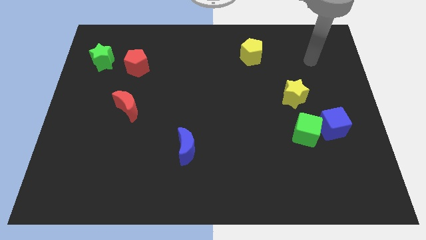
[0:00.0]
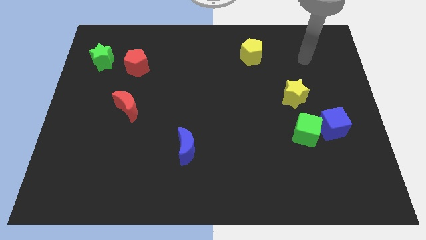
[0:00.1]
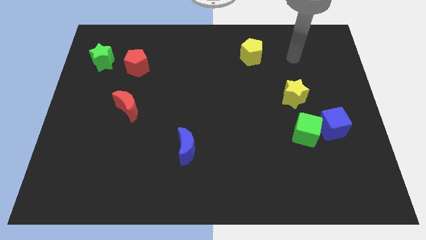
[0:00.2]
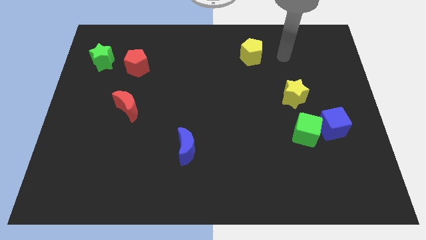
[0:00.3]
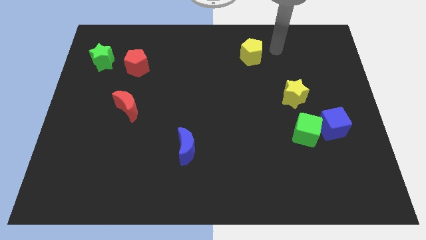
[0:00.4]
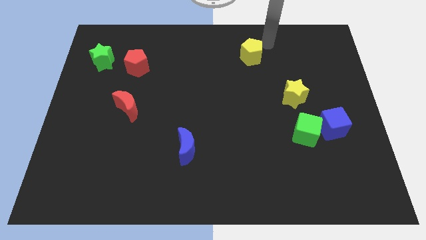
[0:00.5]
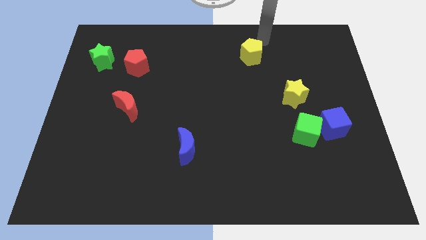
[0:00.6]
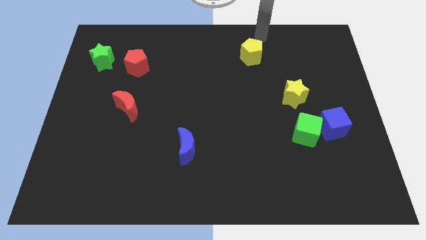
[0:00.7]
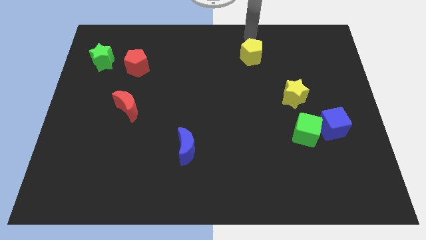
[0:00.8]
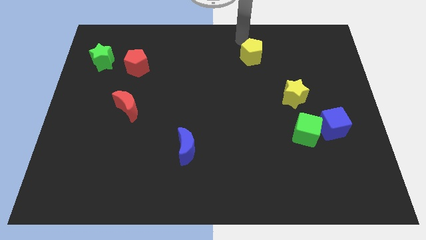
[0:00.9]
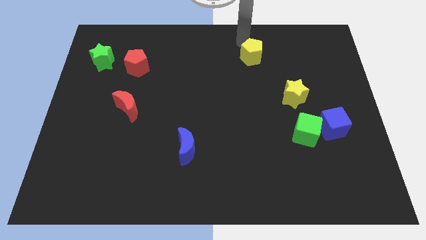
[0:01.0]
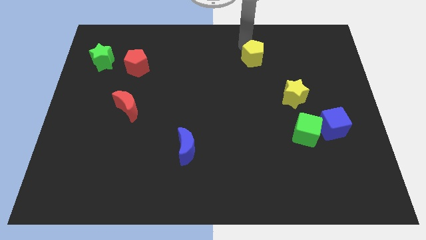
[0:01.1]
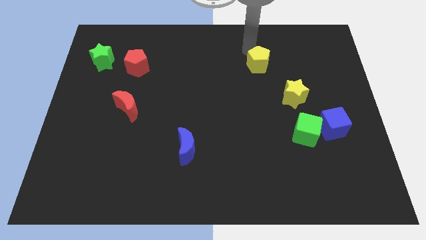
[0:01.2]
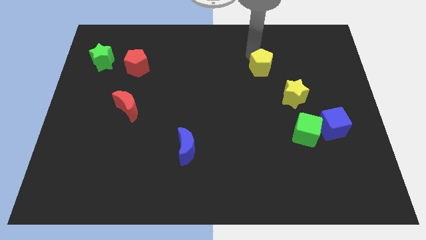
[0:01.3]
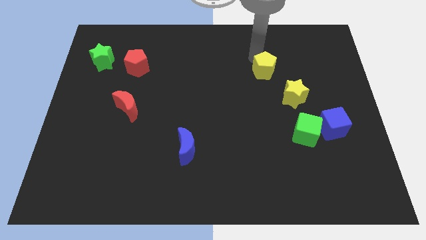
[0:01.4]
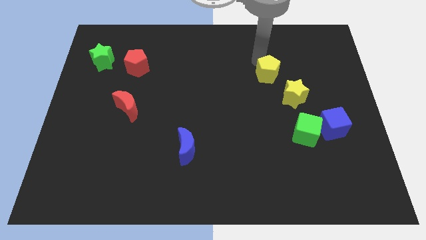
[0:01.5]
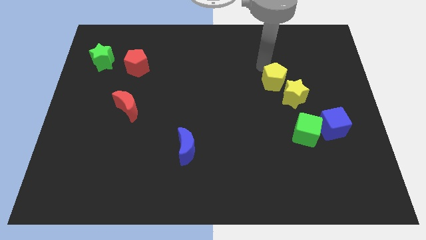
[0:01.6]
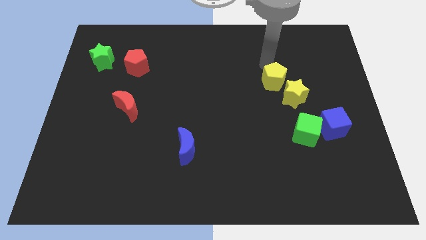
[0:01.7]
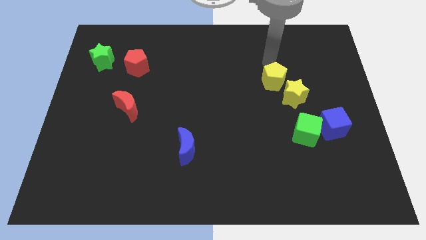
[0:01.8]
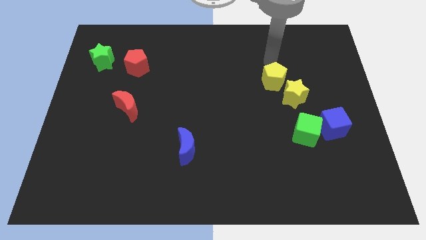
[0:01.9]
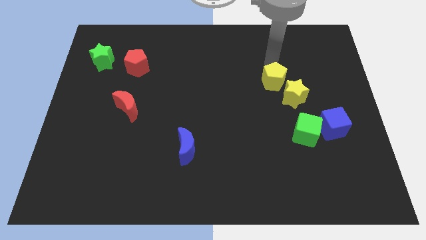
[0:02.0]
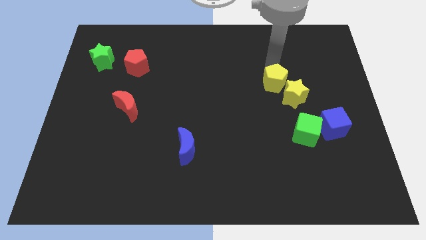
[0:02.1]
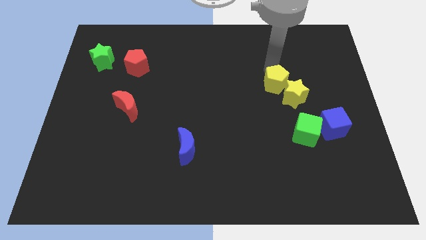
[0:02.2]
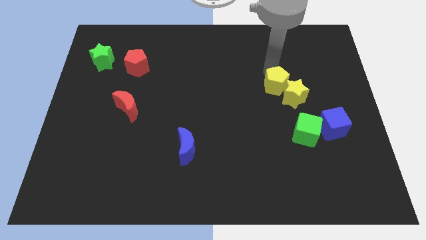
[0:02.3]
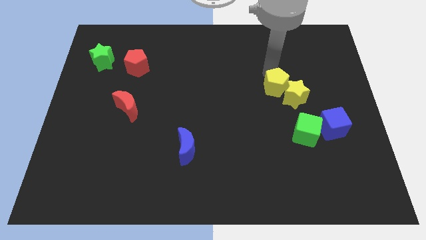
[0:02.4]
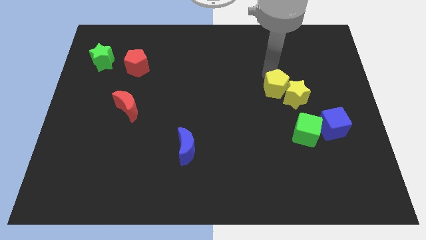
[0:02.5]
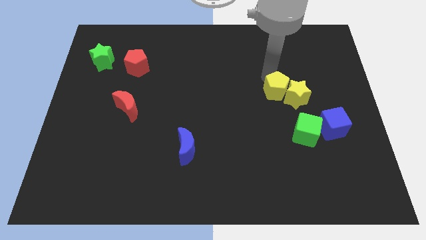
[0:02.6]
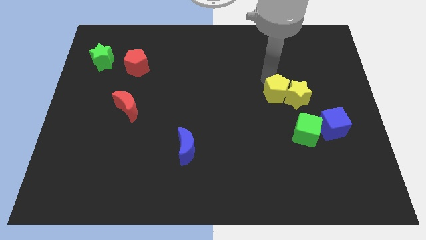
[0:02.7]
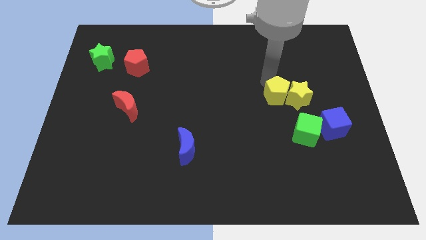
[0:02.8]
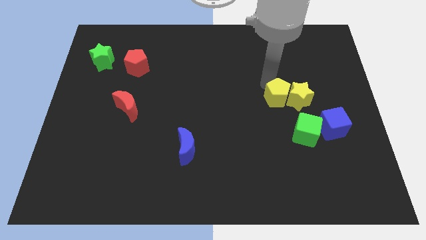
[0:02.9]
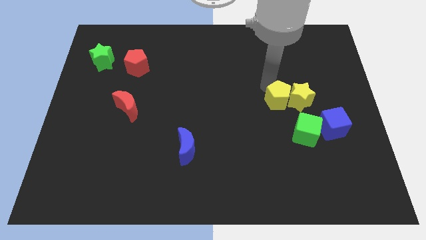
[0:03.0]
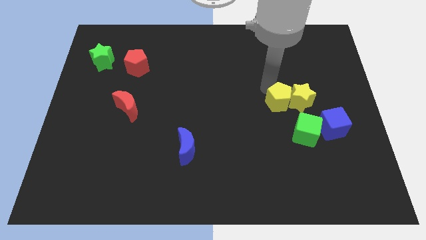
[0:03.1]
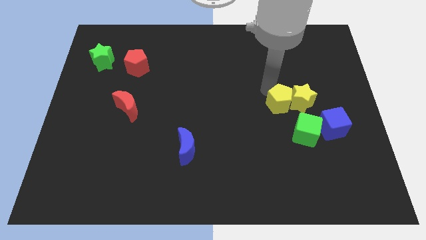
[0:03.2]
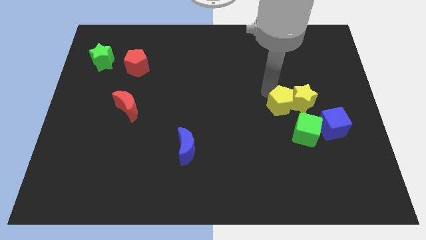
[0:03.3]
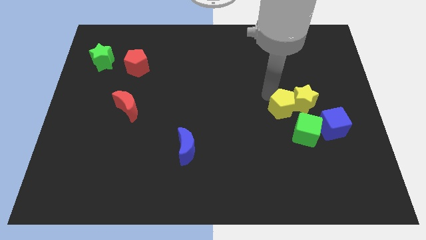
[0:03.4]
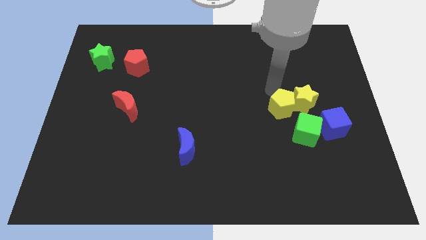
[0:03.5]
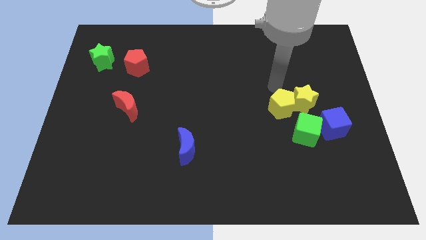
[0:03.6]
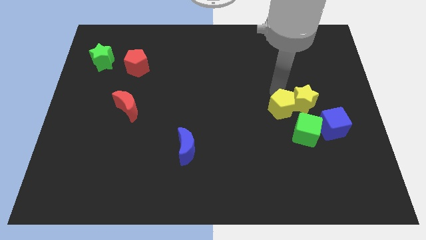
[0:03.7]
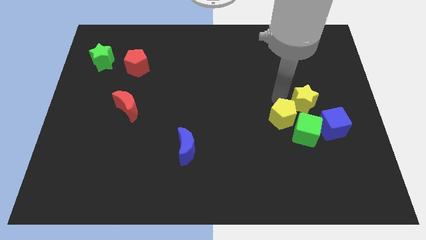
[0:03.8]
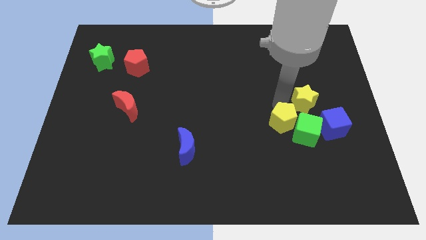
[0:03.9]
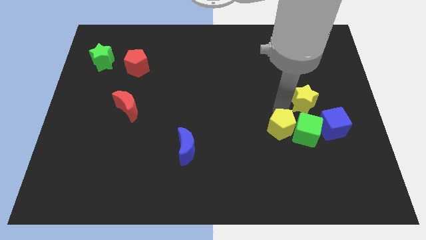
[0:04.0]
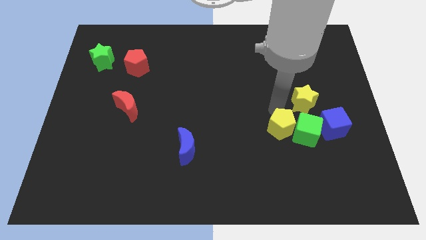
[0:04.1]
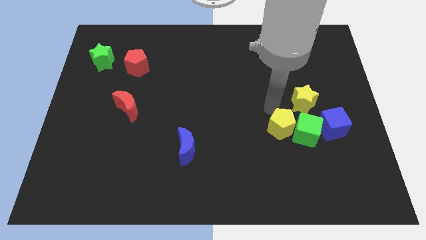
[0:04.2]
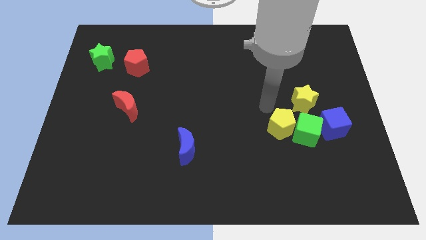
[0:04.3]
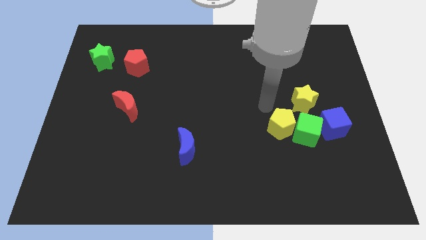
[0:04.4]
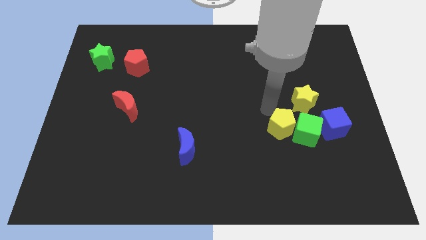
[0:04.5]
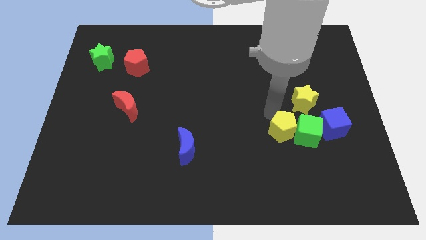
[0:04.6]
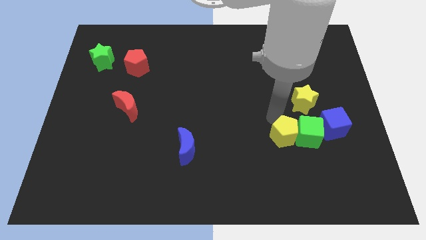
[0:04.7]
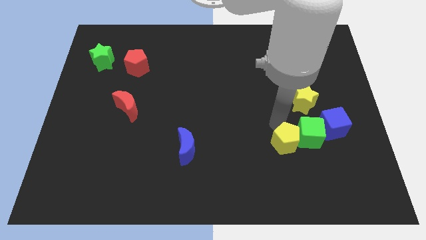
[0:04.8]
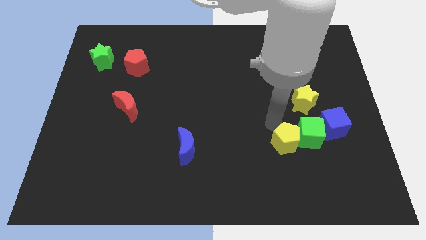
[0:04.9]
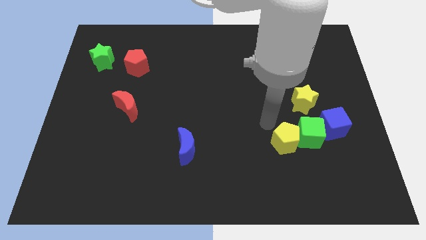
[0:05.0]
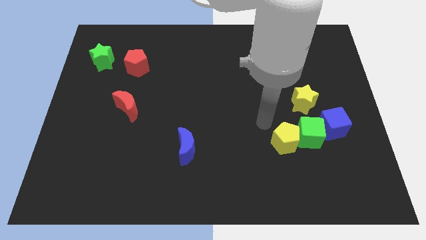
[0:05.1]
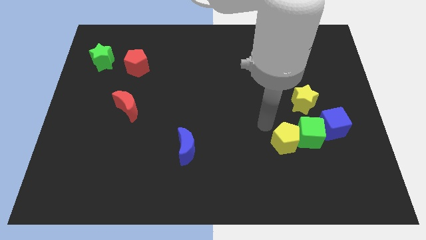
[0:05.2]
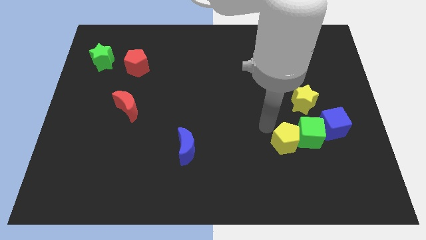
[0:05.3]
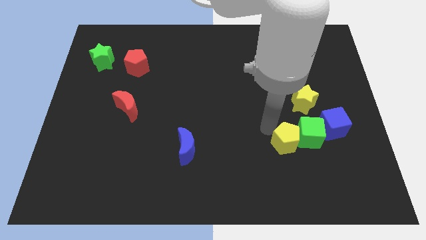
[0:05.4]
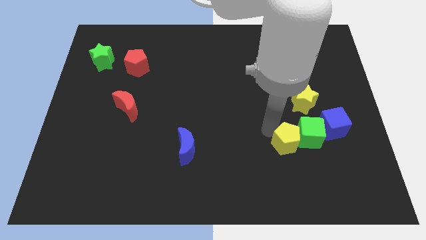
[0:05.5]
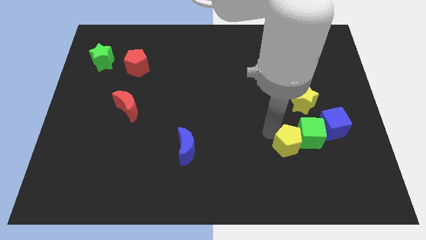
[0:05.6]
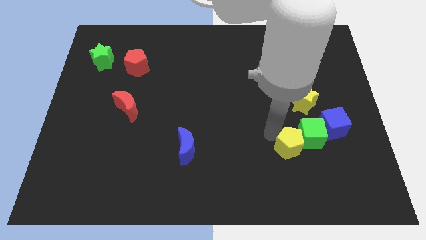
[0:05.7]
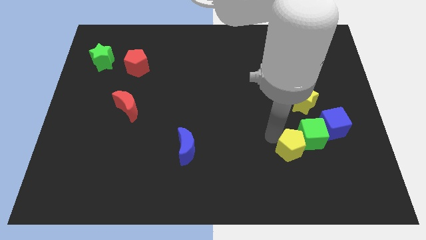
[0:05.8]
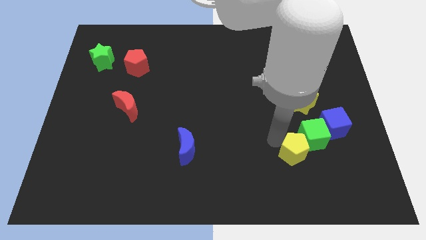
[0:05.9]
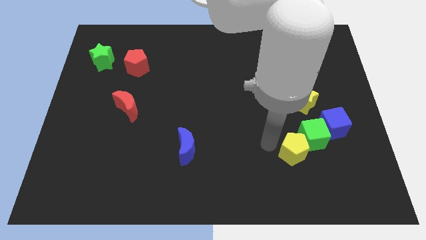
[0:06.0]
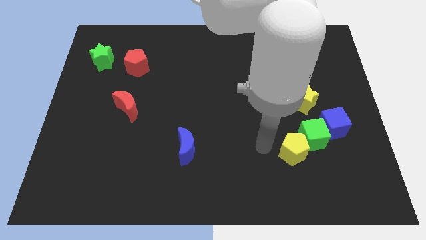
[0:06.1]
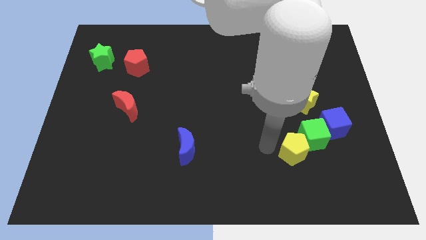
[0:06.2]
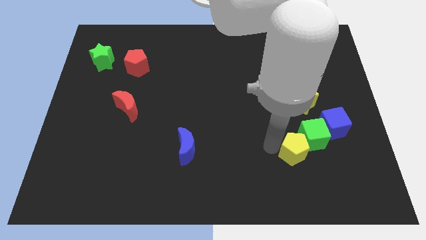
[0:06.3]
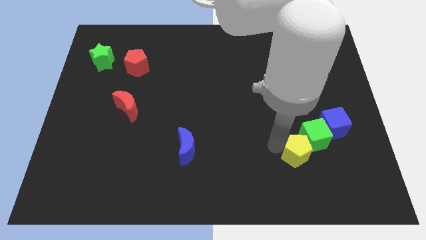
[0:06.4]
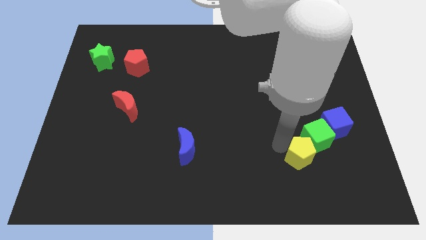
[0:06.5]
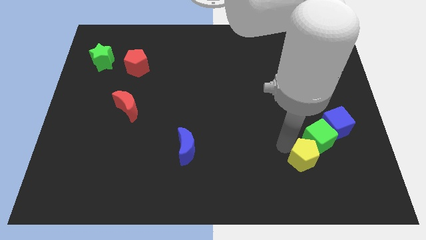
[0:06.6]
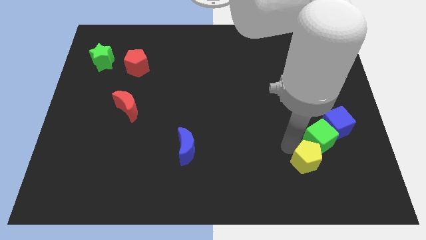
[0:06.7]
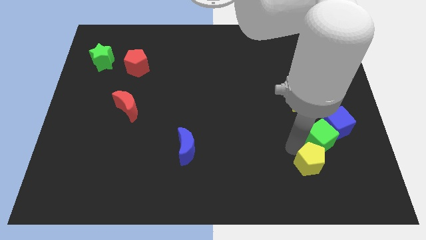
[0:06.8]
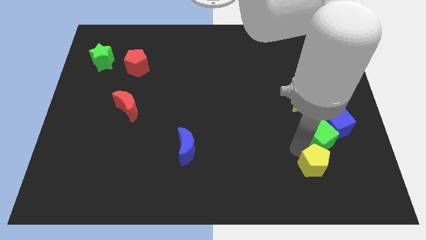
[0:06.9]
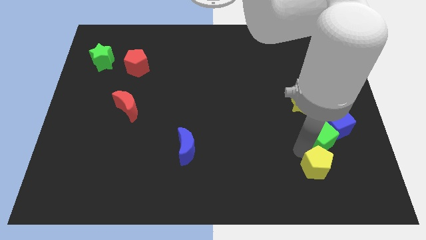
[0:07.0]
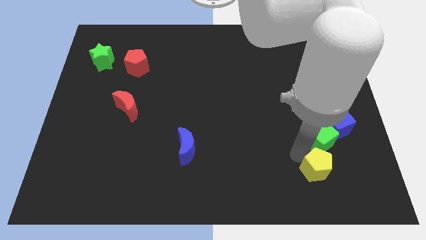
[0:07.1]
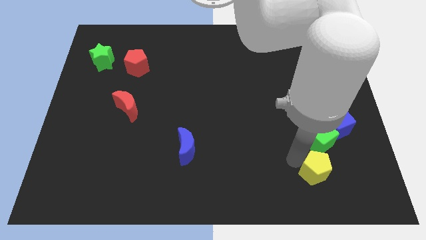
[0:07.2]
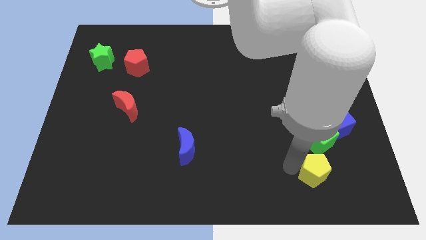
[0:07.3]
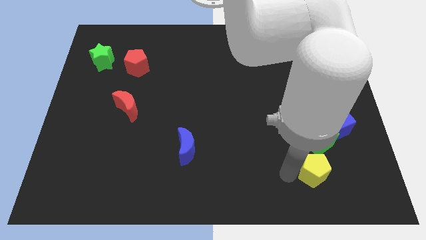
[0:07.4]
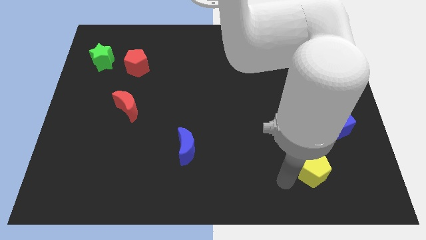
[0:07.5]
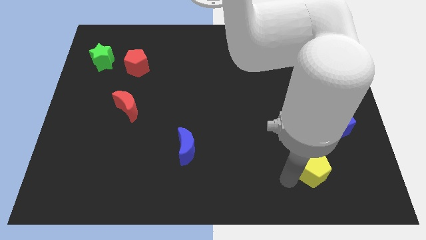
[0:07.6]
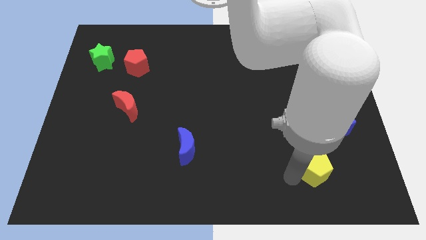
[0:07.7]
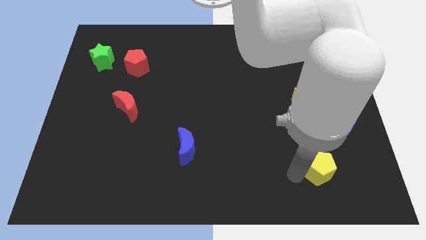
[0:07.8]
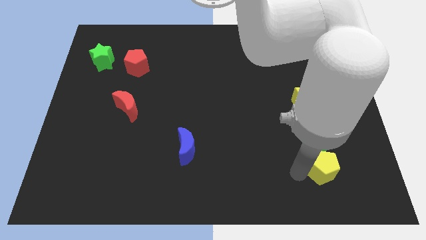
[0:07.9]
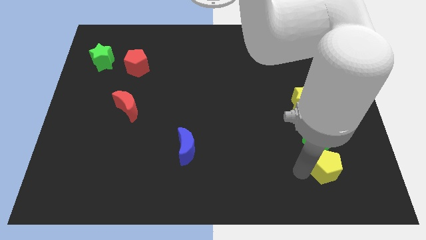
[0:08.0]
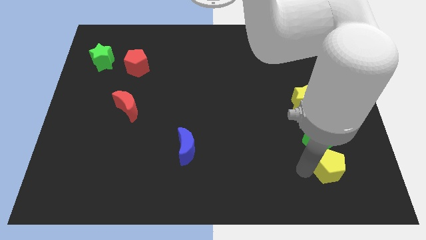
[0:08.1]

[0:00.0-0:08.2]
put the yellow pentagon to the bottom right of the green cube
